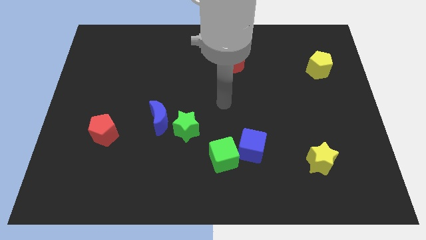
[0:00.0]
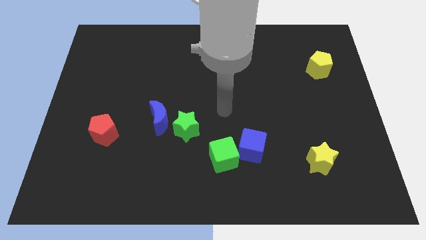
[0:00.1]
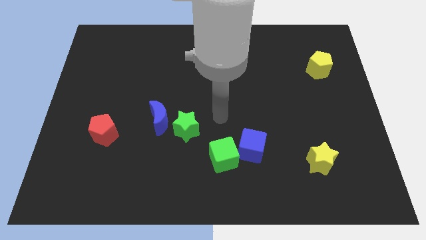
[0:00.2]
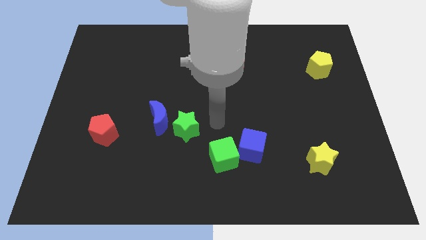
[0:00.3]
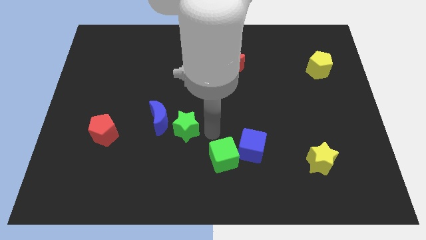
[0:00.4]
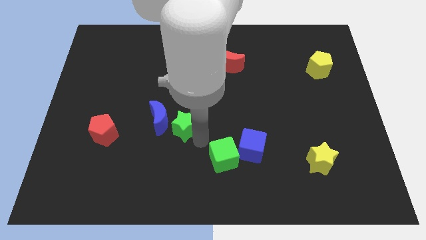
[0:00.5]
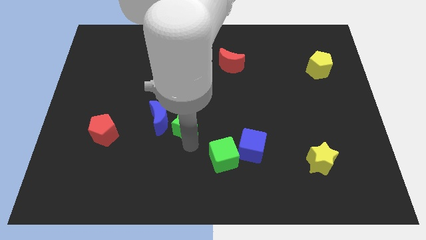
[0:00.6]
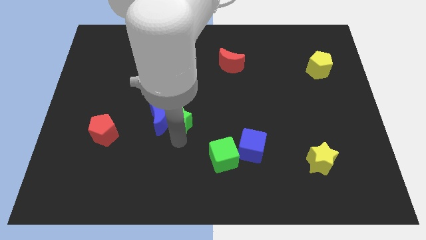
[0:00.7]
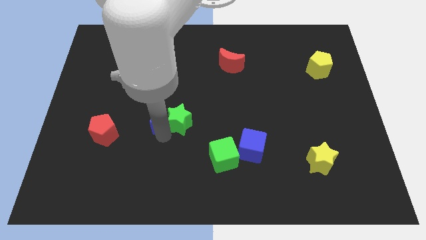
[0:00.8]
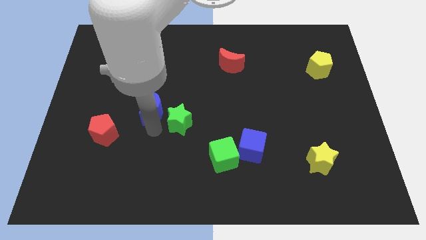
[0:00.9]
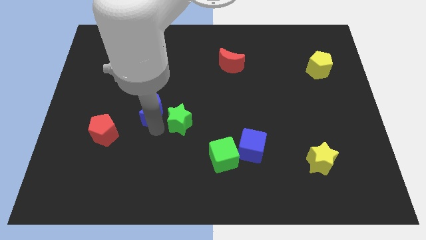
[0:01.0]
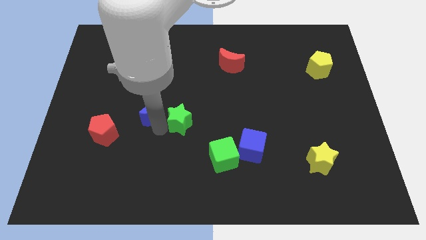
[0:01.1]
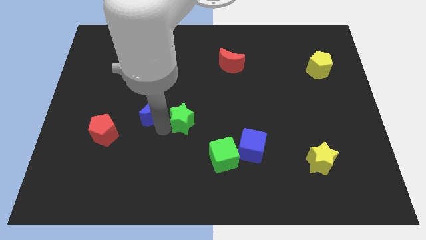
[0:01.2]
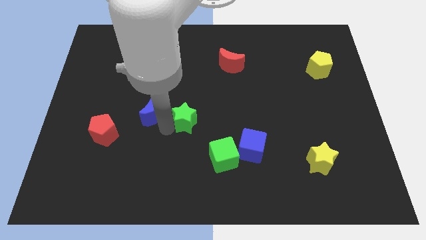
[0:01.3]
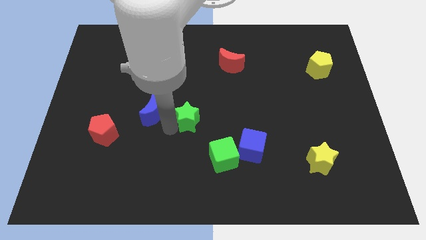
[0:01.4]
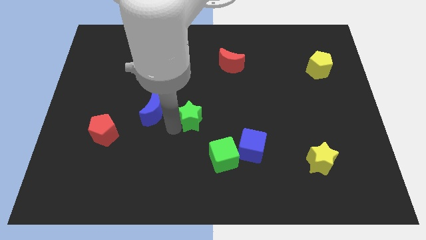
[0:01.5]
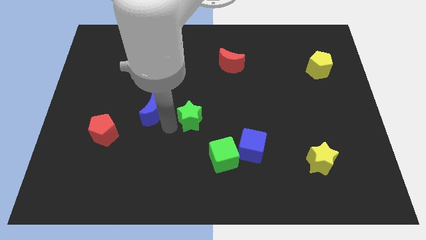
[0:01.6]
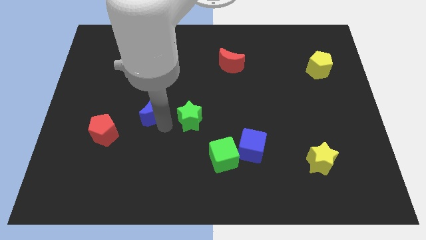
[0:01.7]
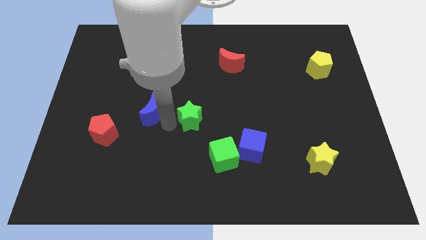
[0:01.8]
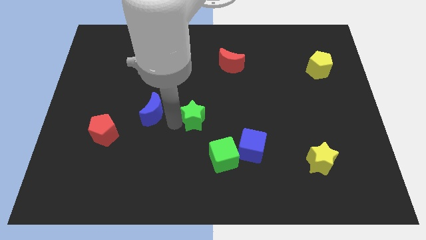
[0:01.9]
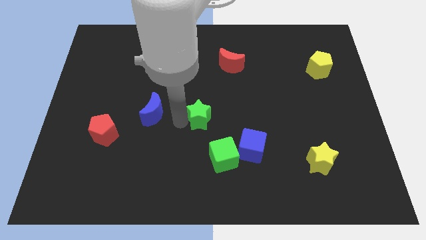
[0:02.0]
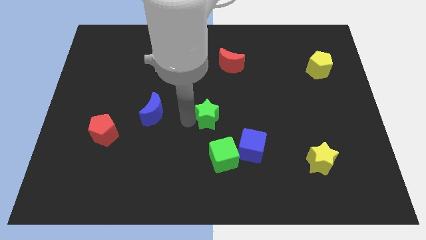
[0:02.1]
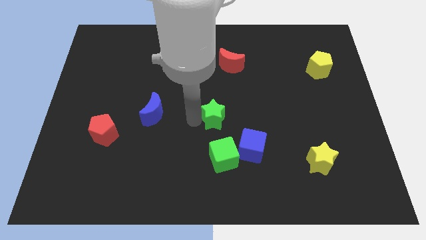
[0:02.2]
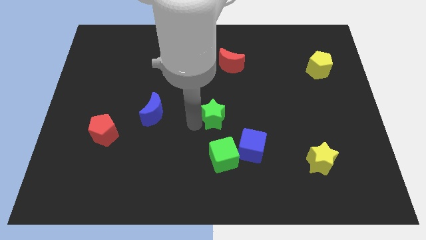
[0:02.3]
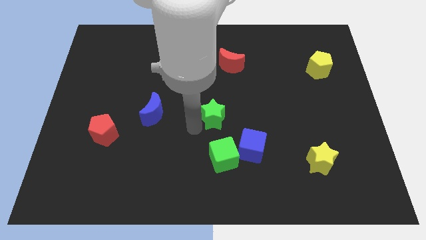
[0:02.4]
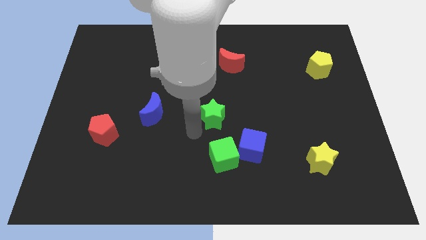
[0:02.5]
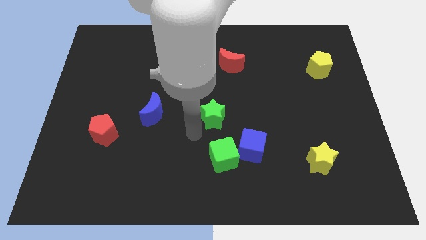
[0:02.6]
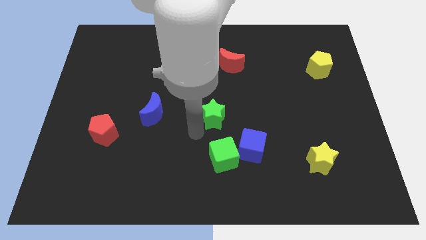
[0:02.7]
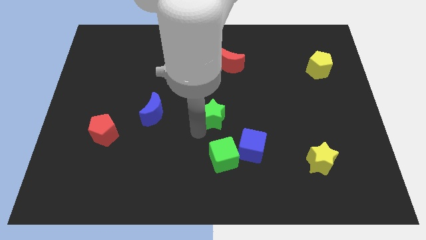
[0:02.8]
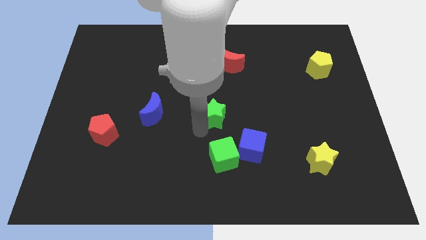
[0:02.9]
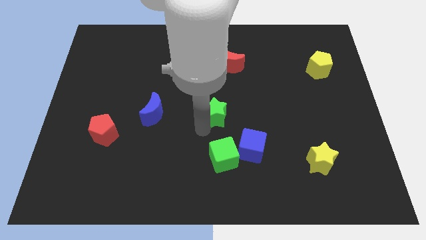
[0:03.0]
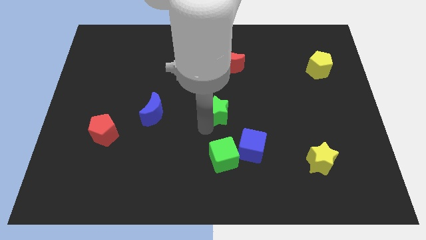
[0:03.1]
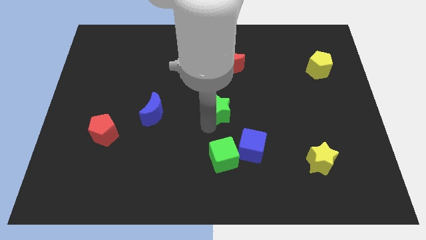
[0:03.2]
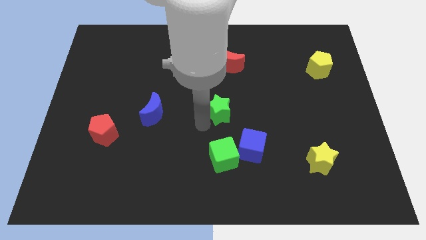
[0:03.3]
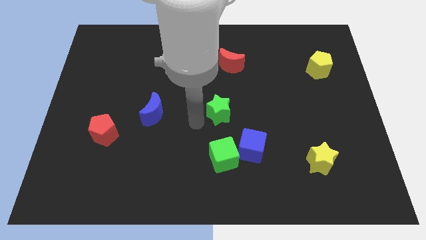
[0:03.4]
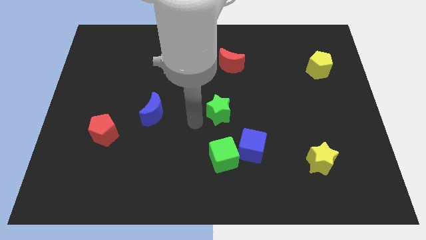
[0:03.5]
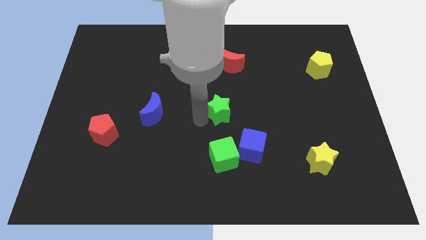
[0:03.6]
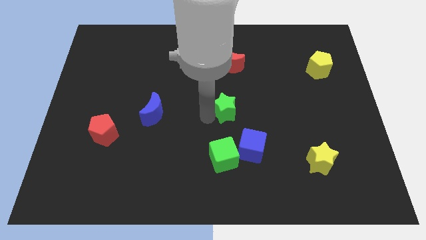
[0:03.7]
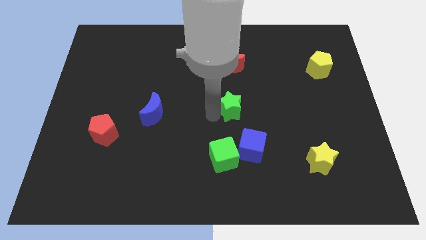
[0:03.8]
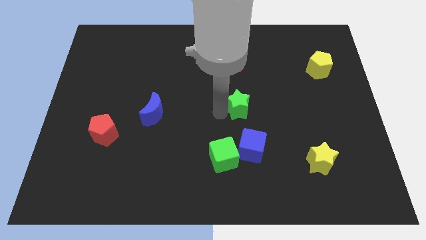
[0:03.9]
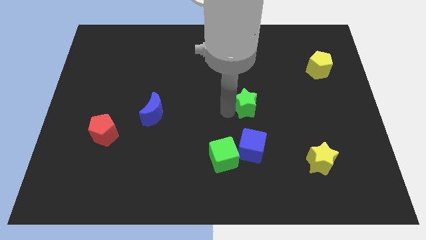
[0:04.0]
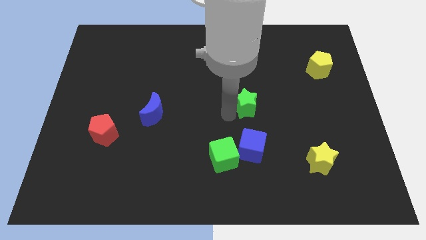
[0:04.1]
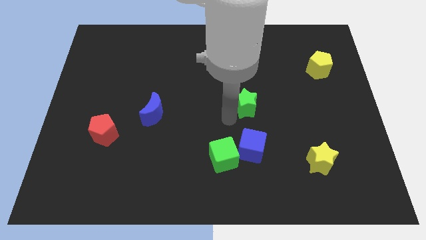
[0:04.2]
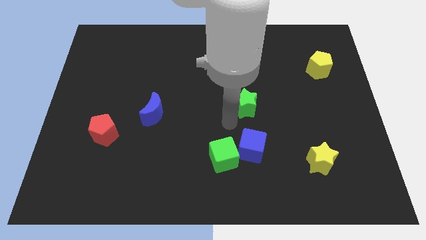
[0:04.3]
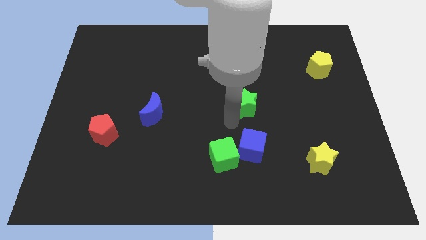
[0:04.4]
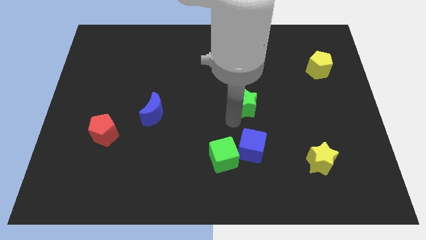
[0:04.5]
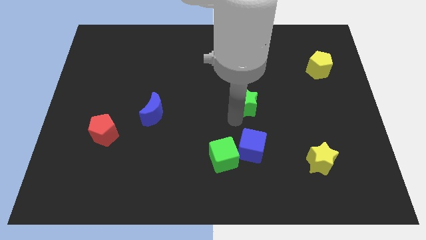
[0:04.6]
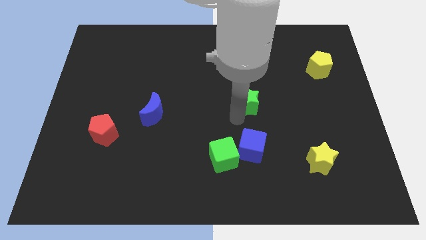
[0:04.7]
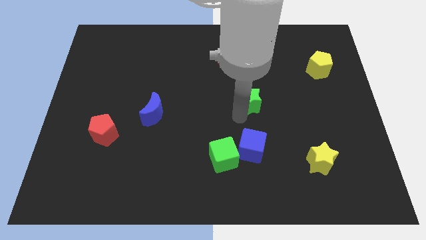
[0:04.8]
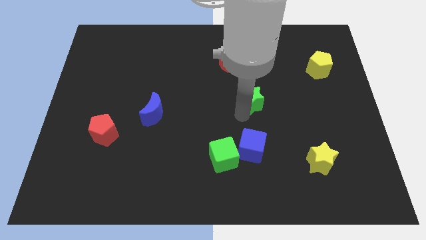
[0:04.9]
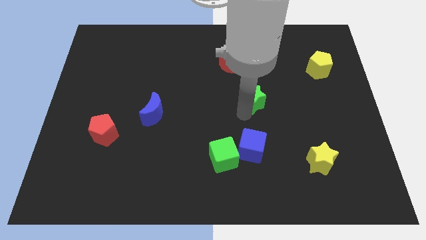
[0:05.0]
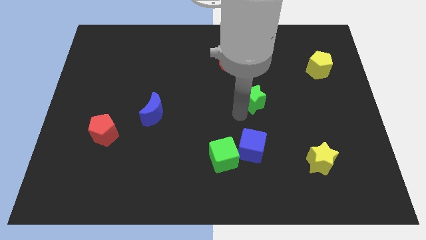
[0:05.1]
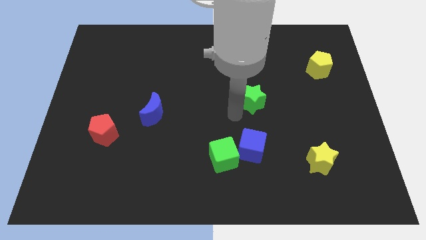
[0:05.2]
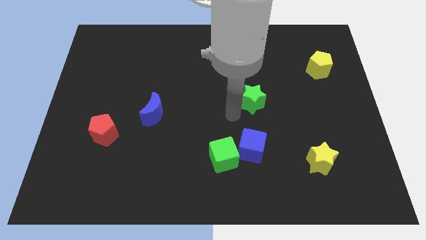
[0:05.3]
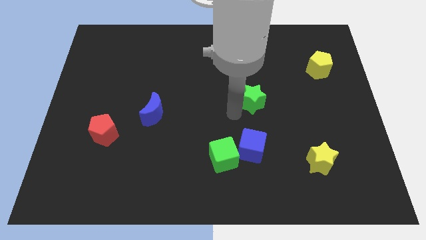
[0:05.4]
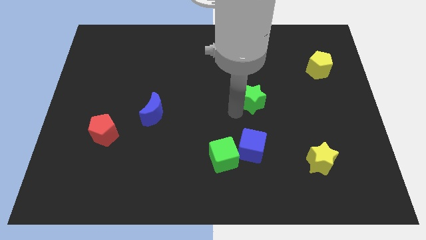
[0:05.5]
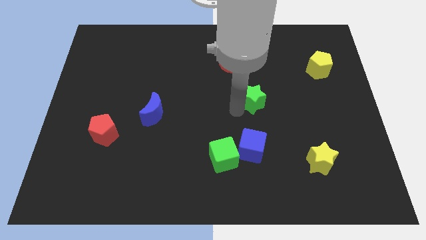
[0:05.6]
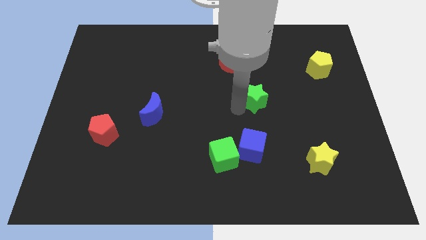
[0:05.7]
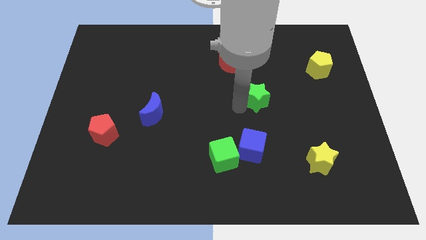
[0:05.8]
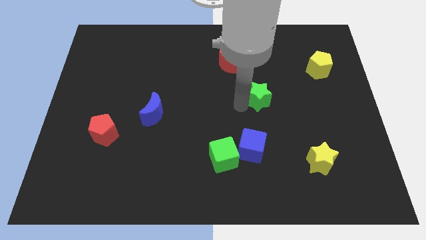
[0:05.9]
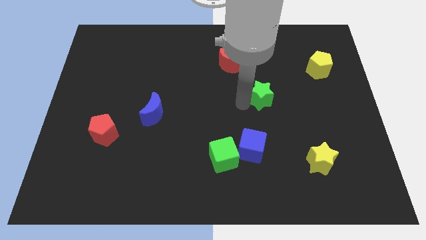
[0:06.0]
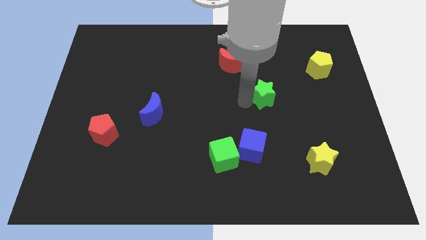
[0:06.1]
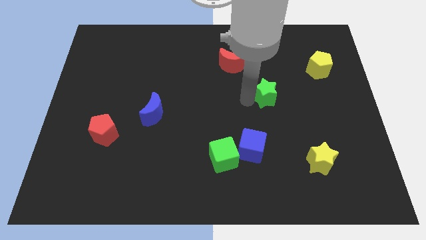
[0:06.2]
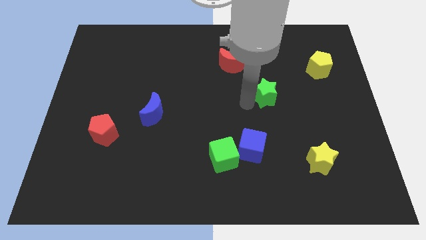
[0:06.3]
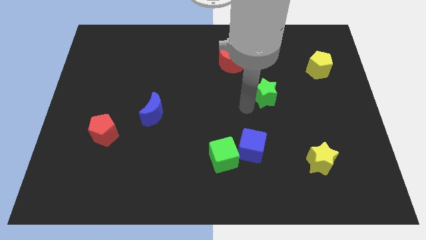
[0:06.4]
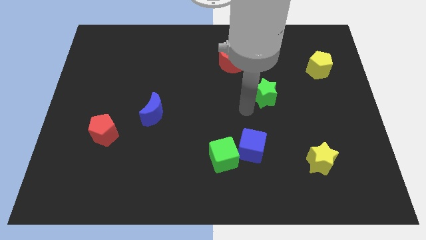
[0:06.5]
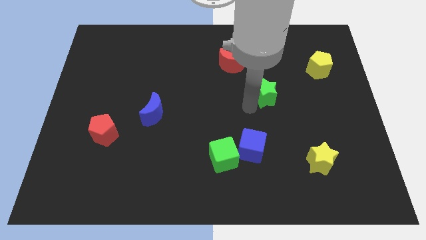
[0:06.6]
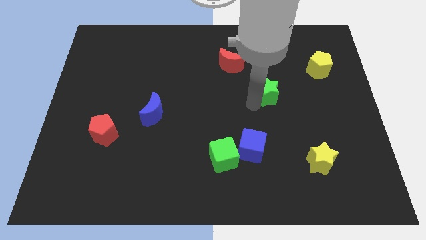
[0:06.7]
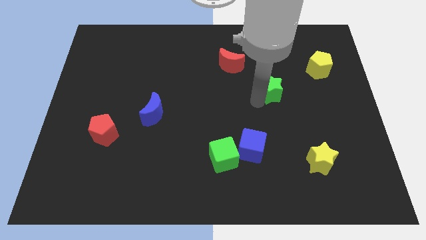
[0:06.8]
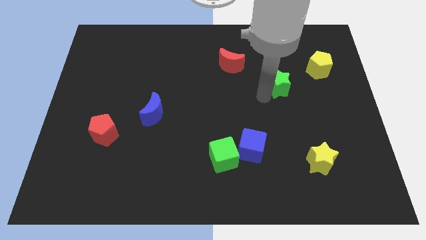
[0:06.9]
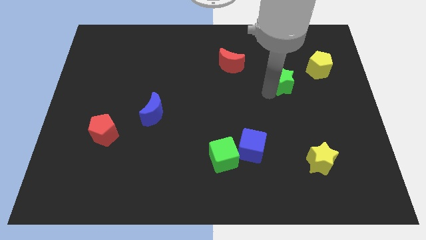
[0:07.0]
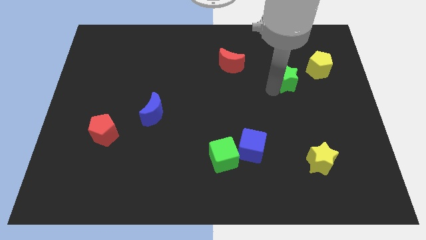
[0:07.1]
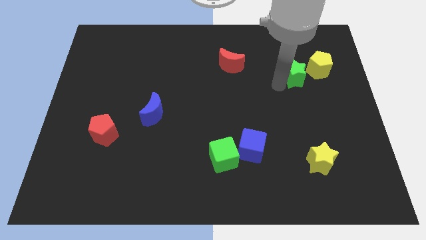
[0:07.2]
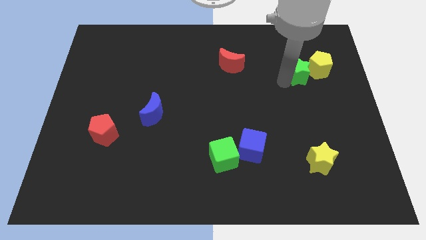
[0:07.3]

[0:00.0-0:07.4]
push the green star towards the yellow pentagon
